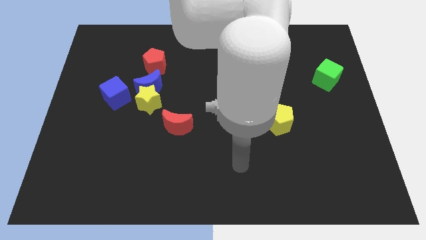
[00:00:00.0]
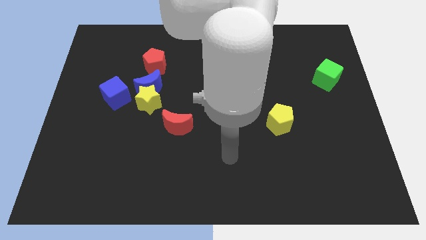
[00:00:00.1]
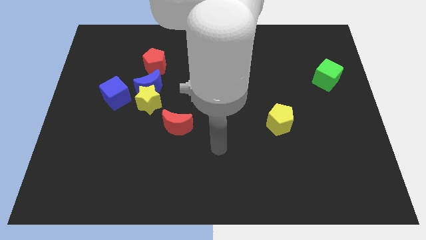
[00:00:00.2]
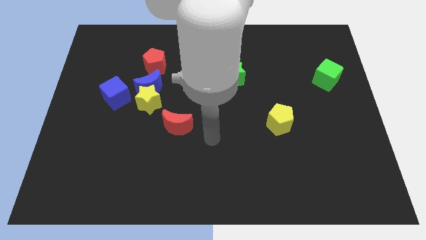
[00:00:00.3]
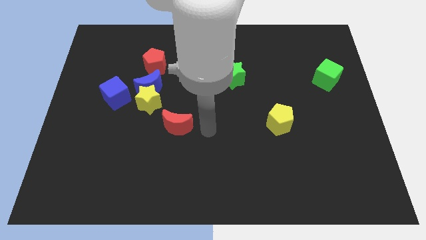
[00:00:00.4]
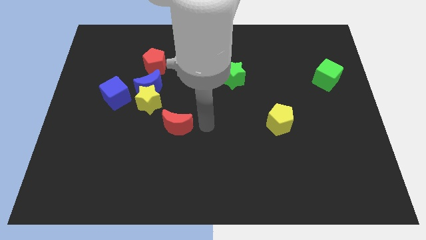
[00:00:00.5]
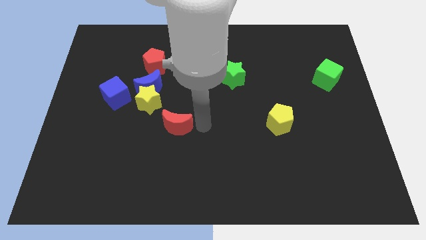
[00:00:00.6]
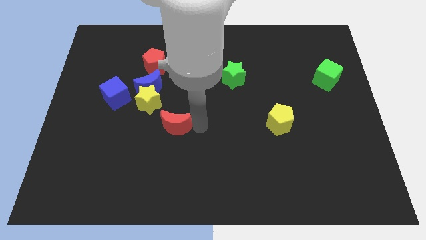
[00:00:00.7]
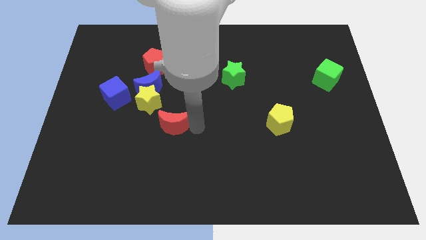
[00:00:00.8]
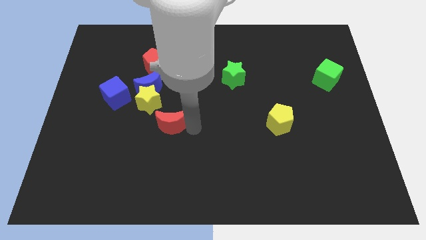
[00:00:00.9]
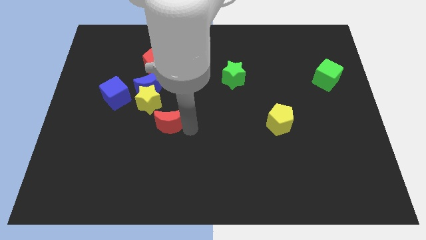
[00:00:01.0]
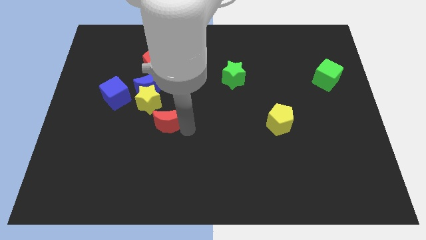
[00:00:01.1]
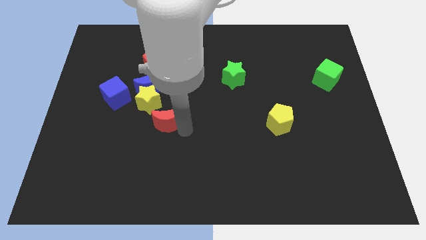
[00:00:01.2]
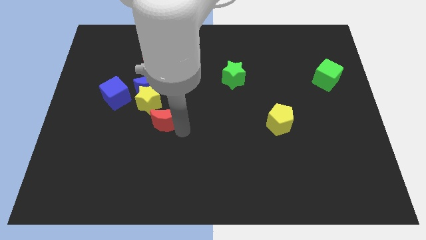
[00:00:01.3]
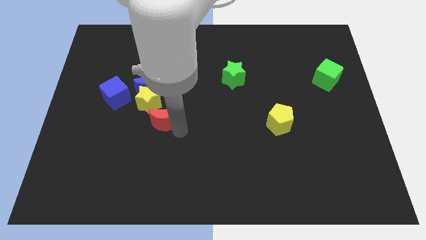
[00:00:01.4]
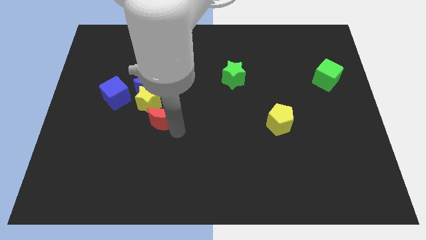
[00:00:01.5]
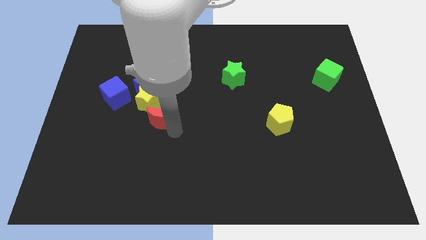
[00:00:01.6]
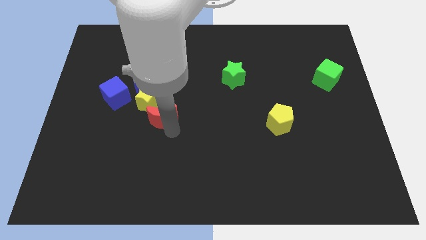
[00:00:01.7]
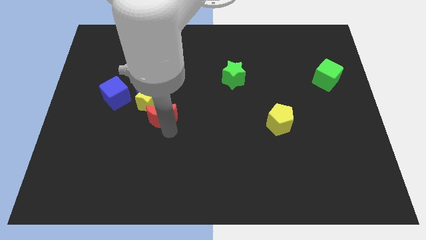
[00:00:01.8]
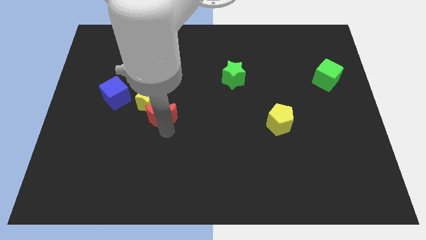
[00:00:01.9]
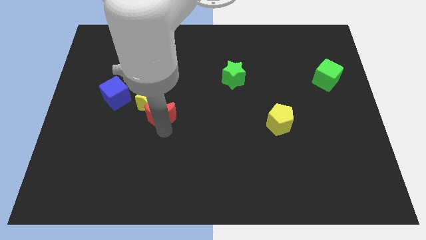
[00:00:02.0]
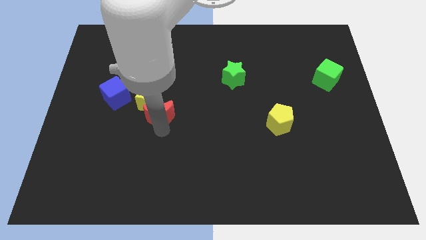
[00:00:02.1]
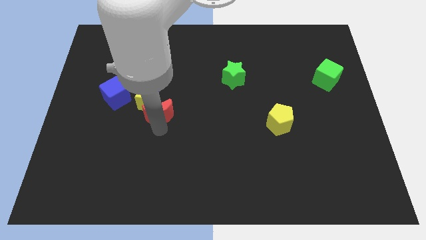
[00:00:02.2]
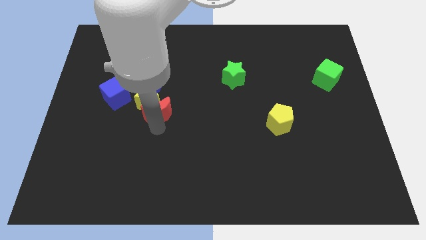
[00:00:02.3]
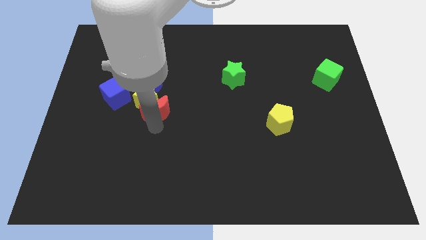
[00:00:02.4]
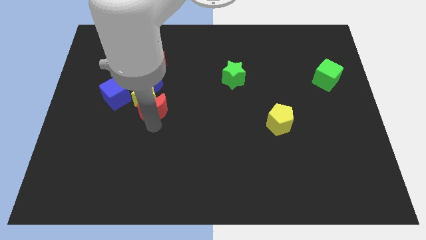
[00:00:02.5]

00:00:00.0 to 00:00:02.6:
slide the red moon somewhat upwards and to the left

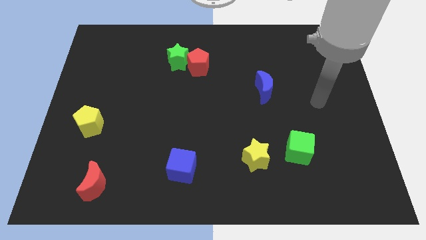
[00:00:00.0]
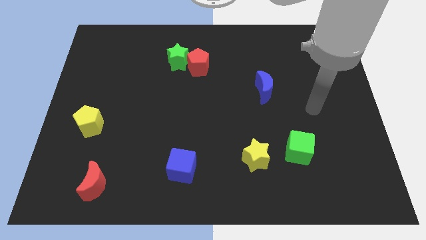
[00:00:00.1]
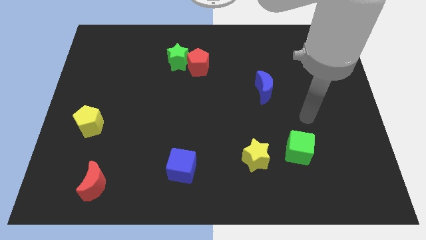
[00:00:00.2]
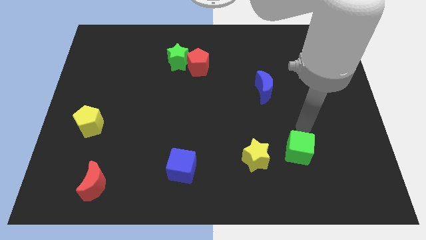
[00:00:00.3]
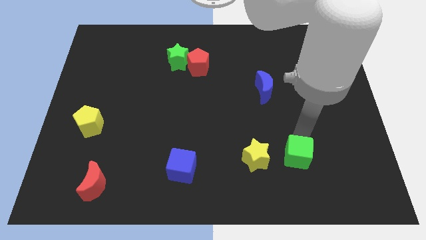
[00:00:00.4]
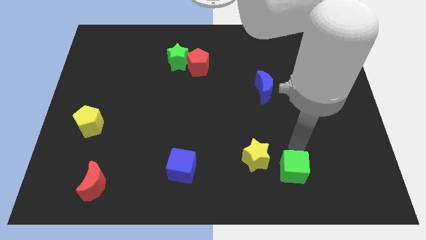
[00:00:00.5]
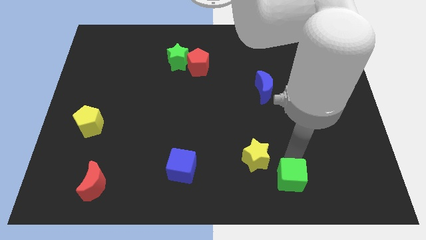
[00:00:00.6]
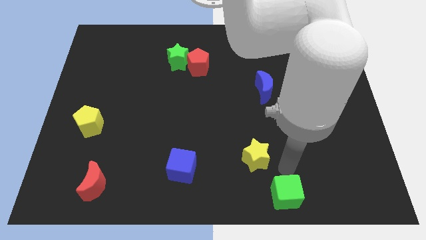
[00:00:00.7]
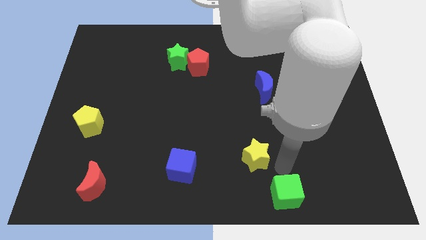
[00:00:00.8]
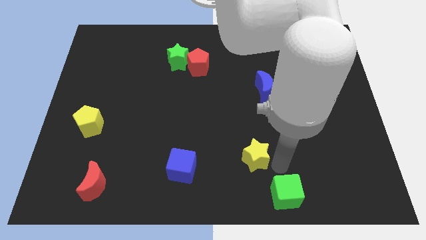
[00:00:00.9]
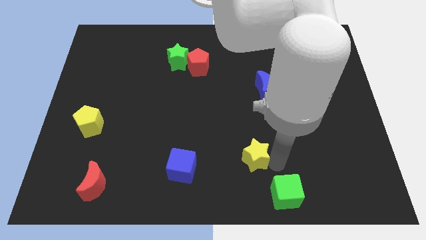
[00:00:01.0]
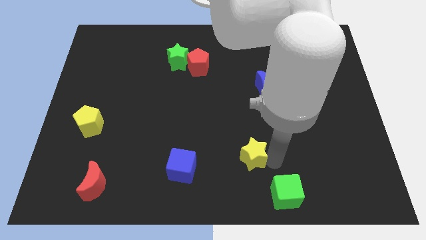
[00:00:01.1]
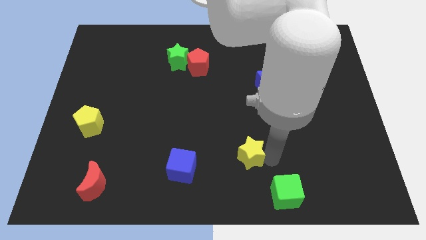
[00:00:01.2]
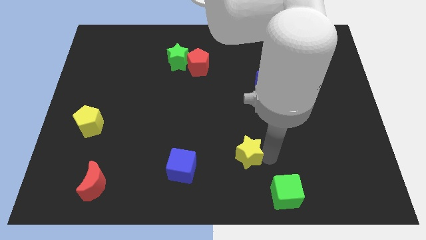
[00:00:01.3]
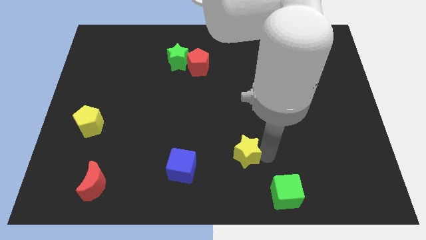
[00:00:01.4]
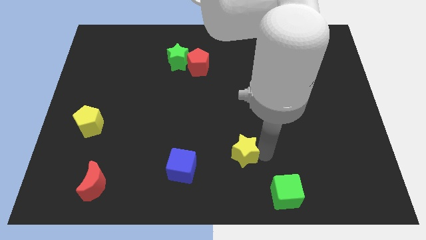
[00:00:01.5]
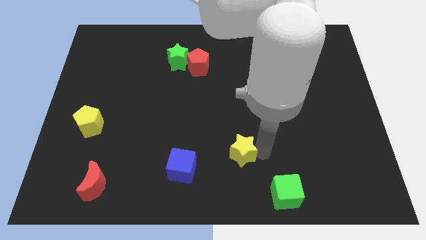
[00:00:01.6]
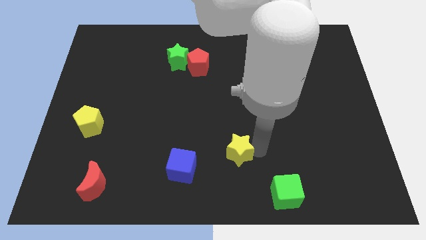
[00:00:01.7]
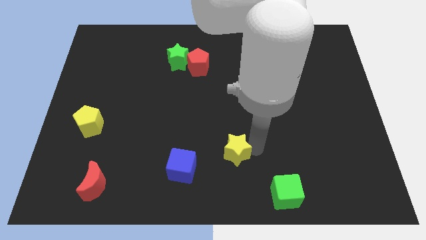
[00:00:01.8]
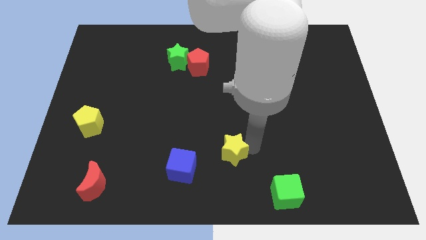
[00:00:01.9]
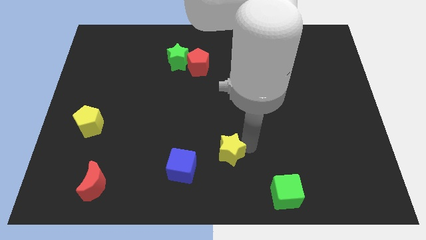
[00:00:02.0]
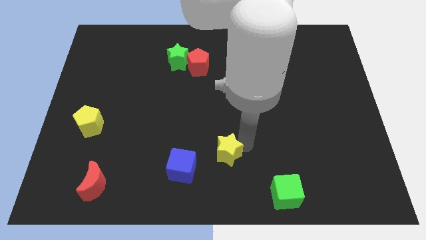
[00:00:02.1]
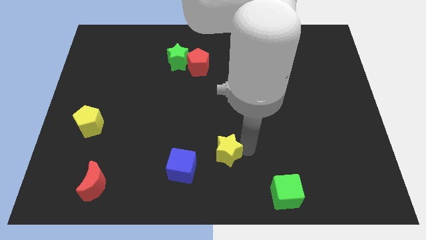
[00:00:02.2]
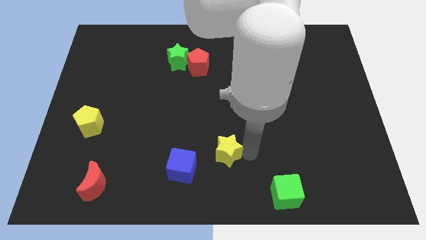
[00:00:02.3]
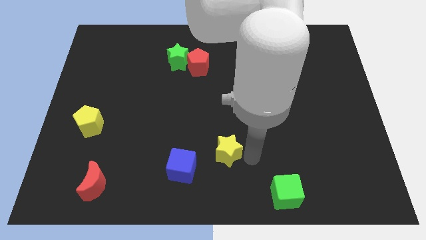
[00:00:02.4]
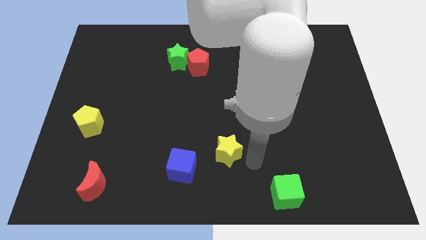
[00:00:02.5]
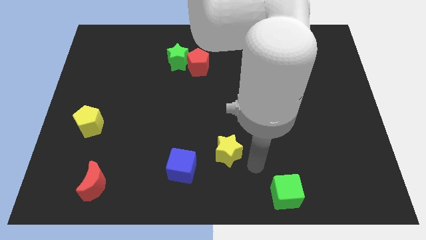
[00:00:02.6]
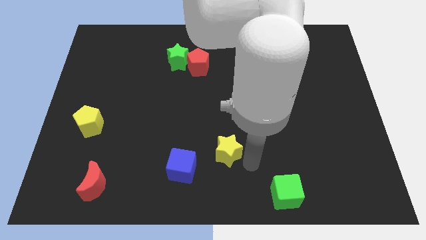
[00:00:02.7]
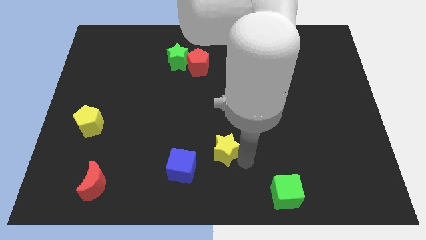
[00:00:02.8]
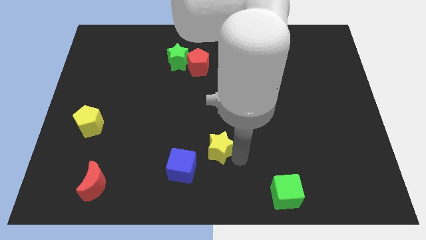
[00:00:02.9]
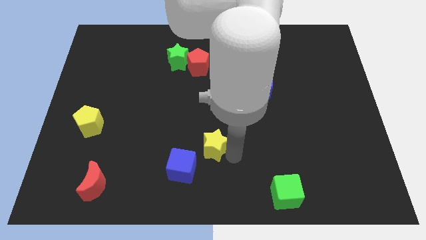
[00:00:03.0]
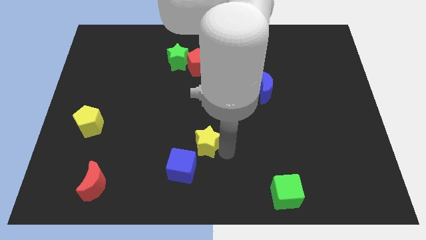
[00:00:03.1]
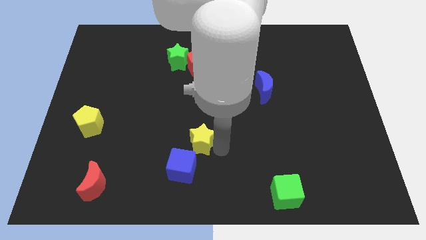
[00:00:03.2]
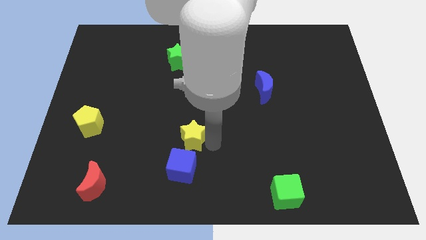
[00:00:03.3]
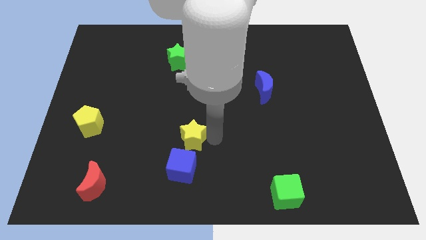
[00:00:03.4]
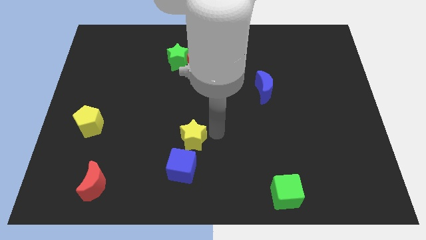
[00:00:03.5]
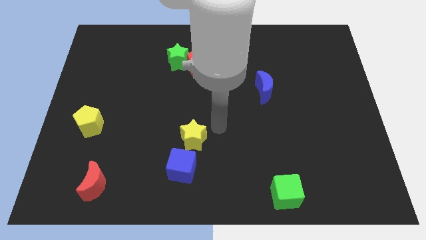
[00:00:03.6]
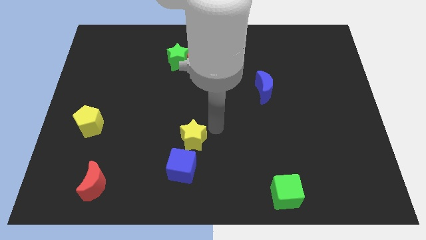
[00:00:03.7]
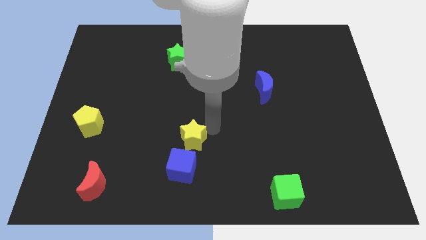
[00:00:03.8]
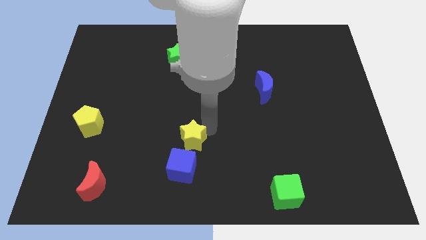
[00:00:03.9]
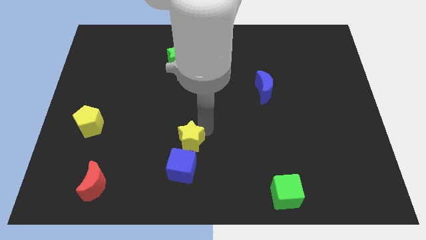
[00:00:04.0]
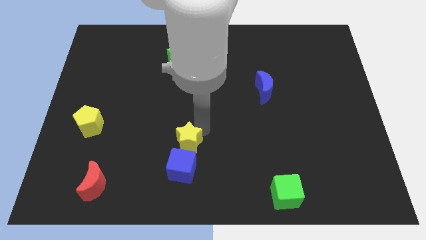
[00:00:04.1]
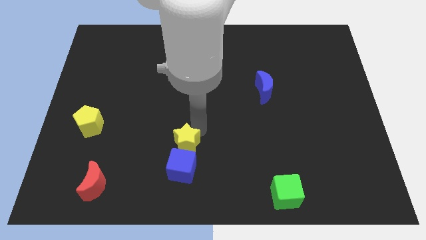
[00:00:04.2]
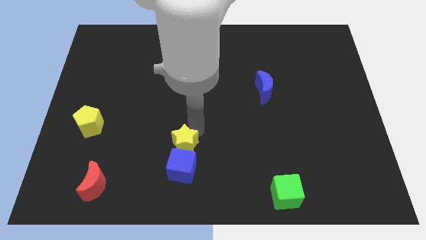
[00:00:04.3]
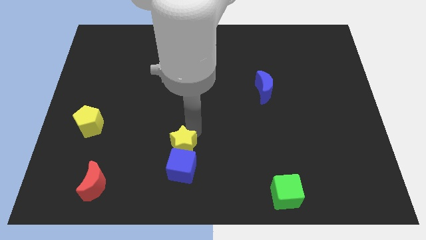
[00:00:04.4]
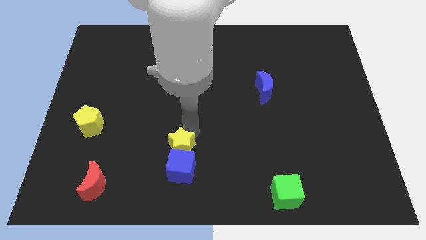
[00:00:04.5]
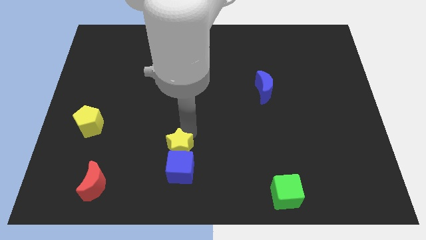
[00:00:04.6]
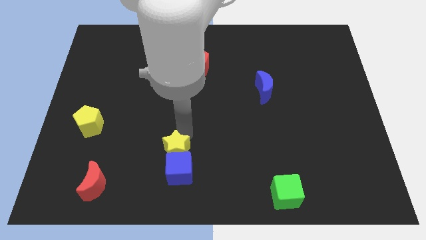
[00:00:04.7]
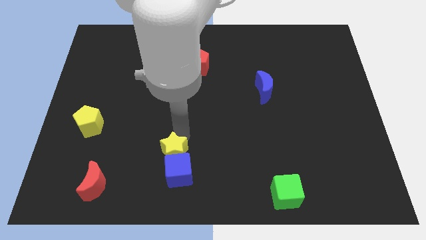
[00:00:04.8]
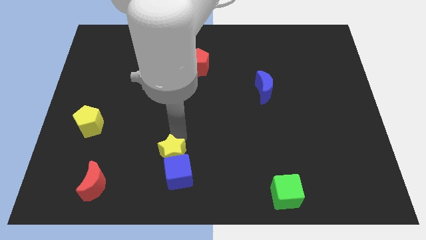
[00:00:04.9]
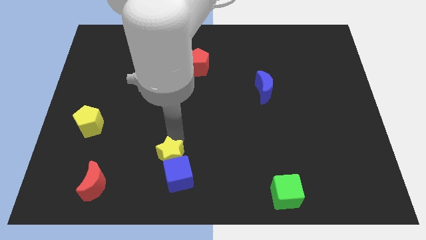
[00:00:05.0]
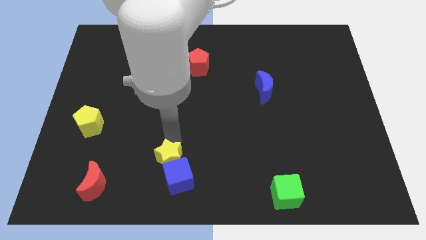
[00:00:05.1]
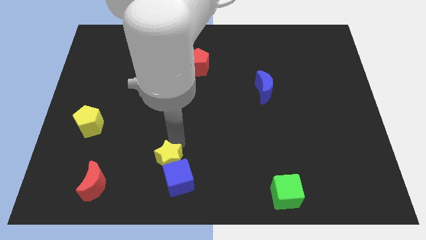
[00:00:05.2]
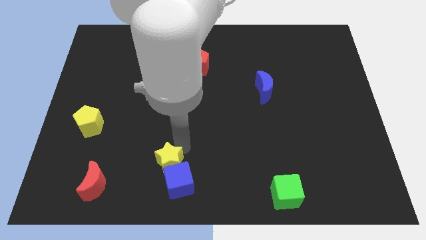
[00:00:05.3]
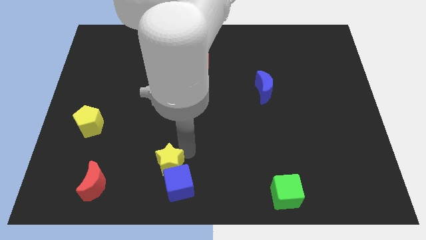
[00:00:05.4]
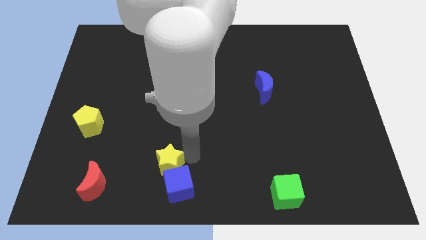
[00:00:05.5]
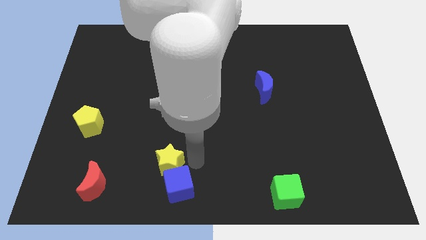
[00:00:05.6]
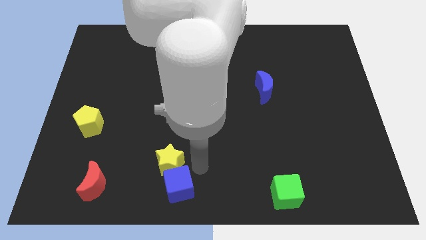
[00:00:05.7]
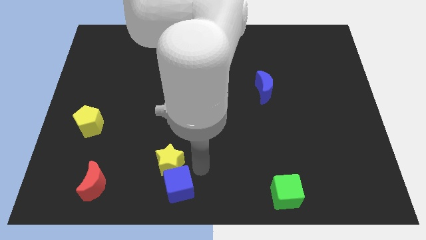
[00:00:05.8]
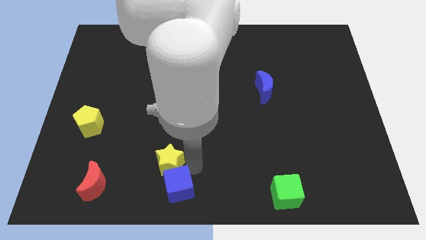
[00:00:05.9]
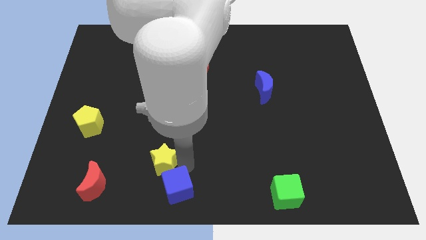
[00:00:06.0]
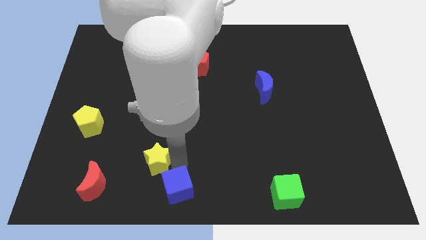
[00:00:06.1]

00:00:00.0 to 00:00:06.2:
push the yellow star to the left
